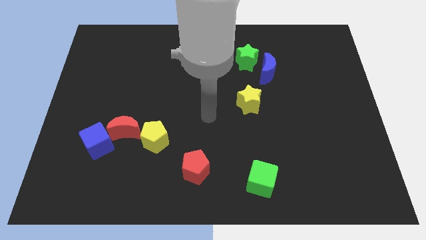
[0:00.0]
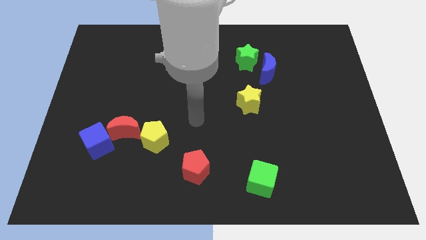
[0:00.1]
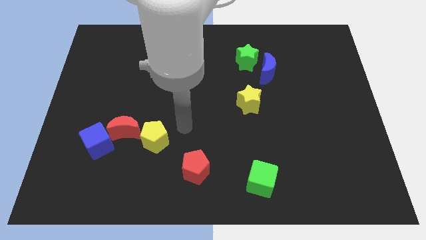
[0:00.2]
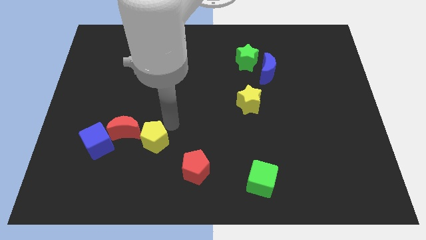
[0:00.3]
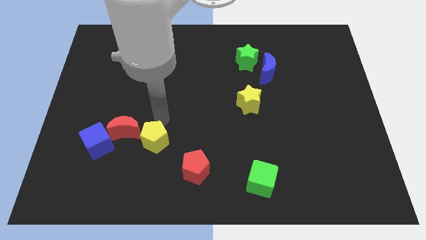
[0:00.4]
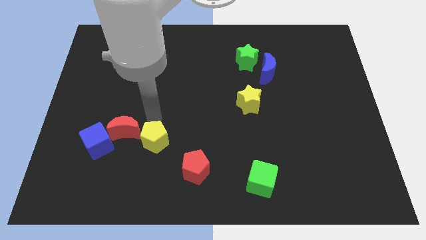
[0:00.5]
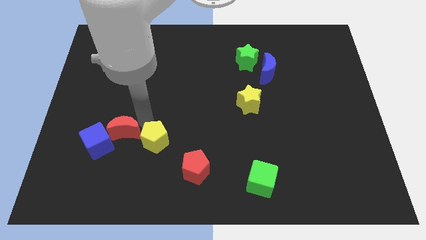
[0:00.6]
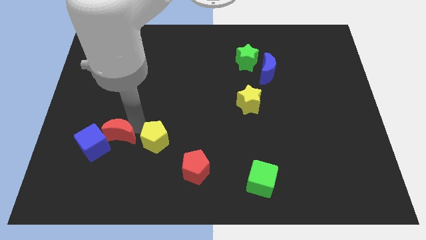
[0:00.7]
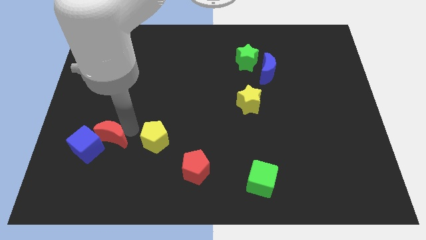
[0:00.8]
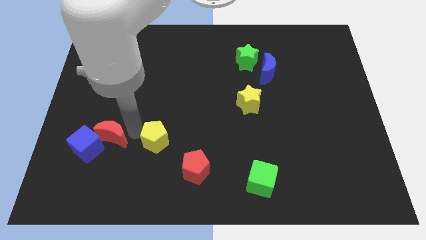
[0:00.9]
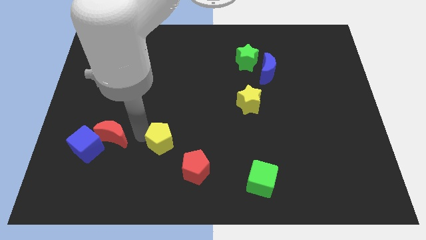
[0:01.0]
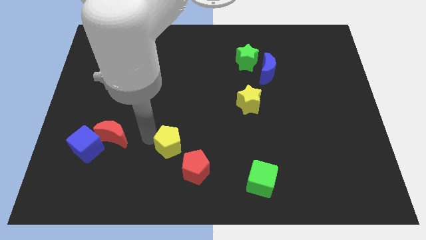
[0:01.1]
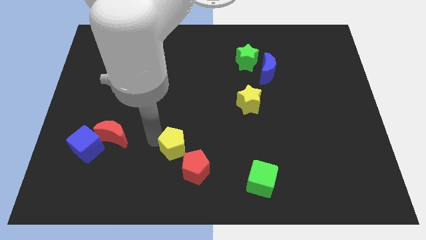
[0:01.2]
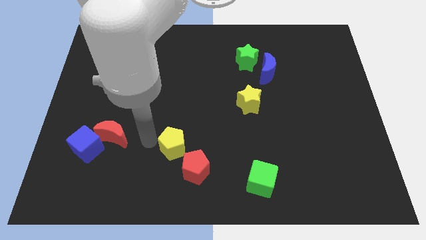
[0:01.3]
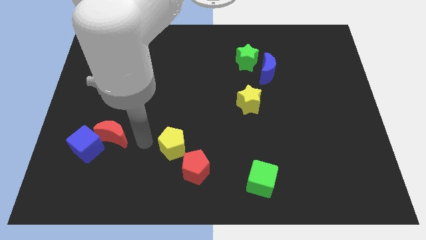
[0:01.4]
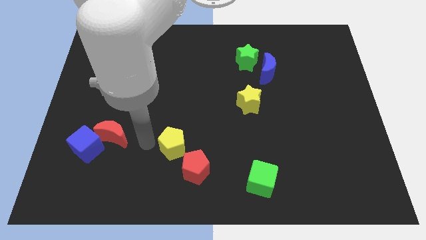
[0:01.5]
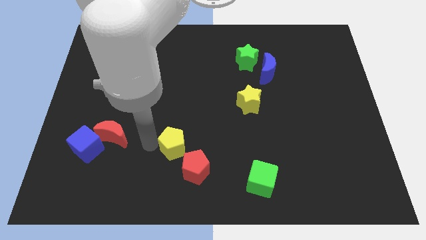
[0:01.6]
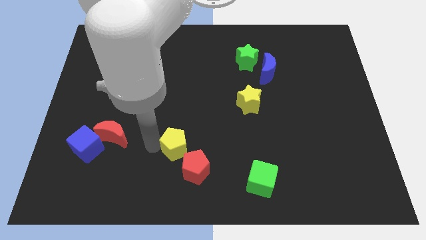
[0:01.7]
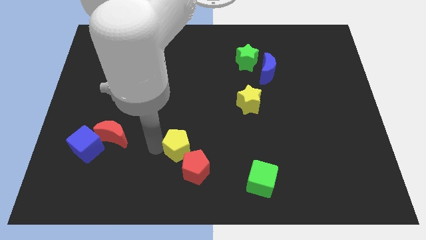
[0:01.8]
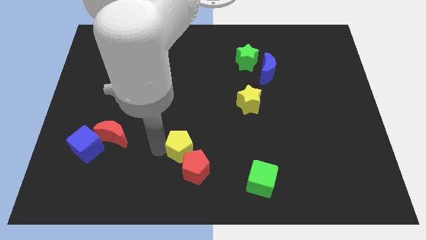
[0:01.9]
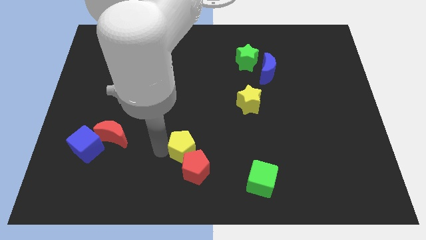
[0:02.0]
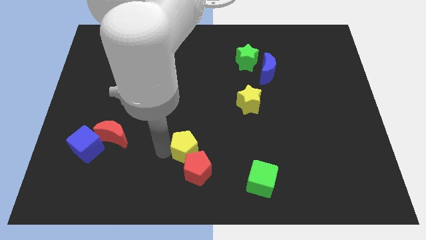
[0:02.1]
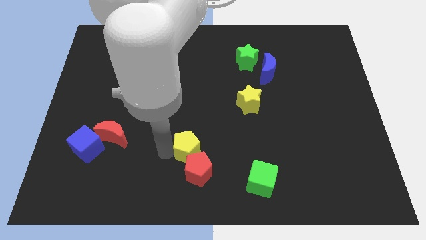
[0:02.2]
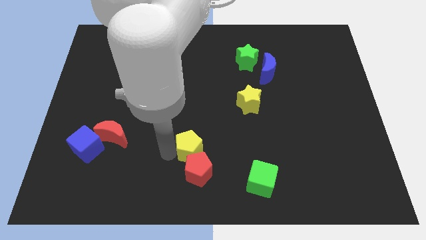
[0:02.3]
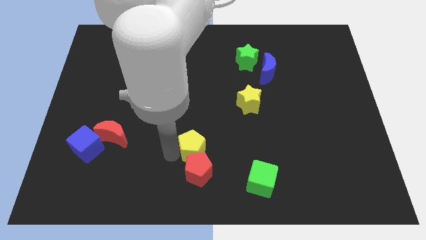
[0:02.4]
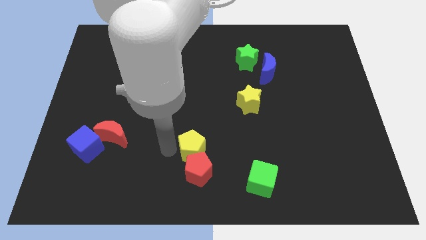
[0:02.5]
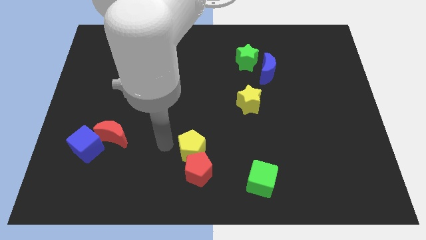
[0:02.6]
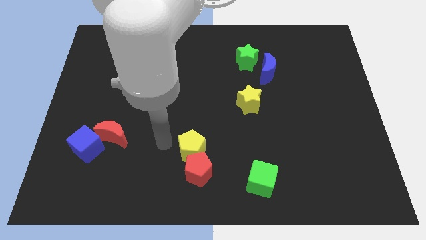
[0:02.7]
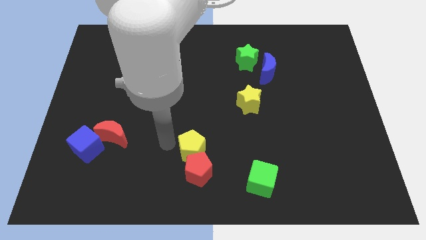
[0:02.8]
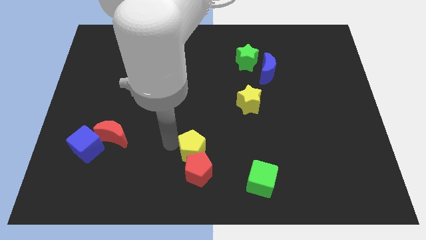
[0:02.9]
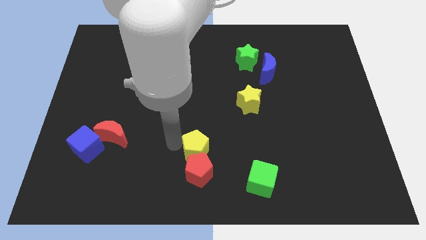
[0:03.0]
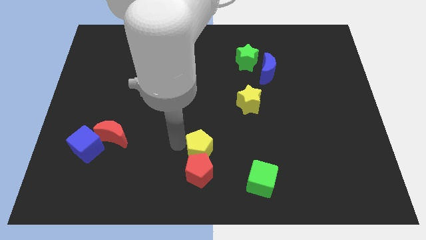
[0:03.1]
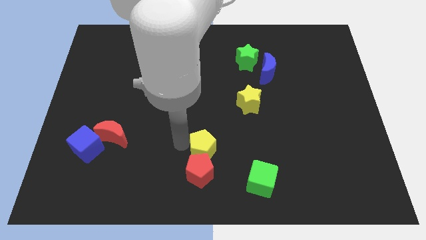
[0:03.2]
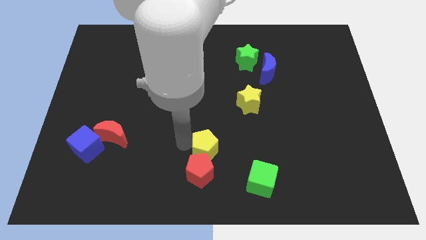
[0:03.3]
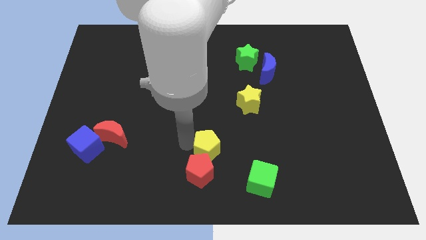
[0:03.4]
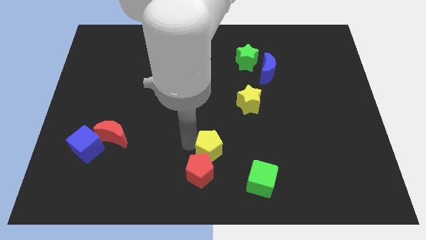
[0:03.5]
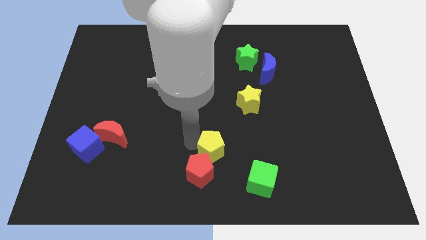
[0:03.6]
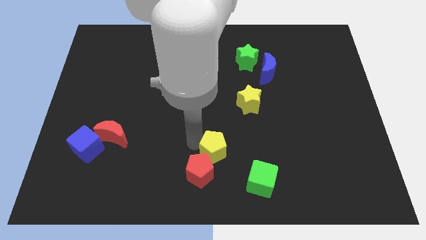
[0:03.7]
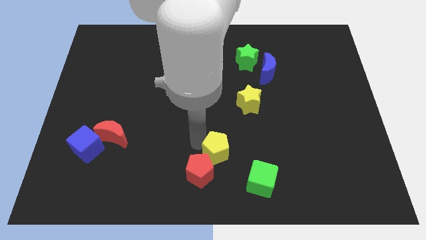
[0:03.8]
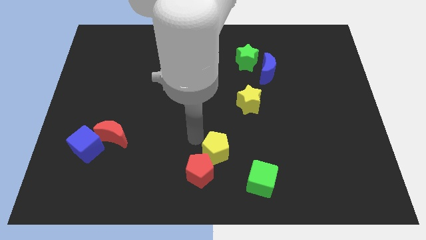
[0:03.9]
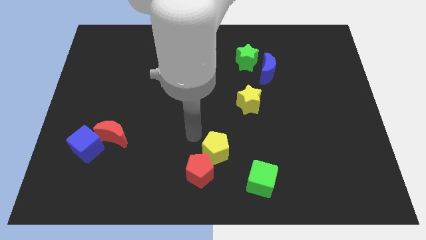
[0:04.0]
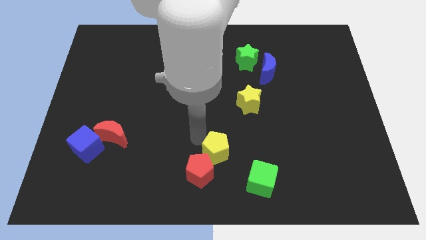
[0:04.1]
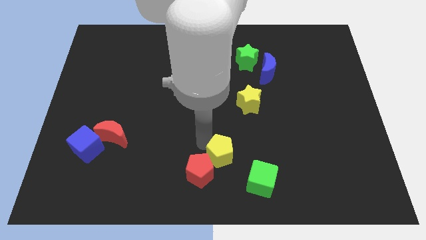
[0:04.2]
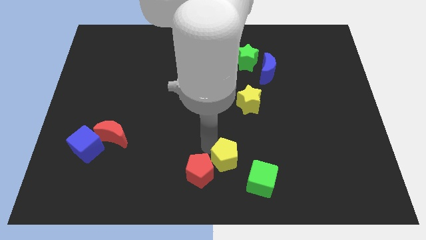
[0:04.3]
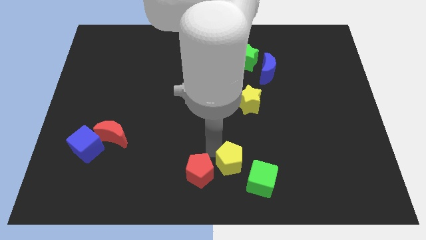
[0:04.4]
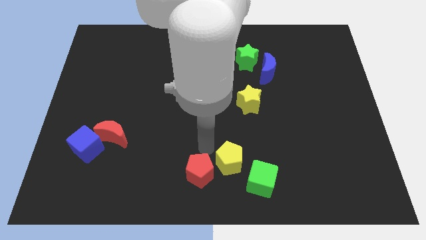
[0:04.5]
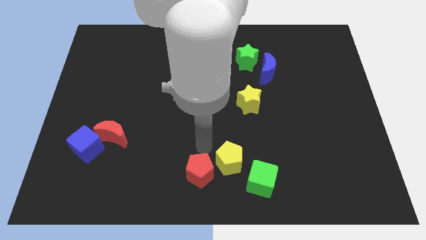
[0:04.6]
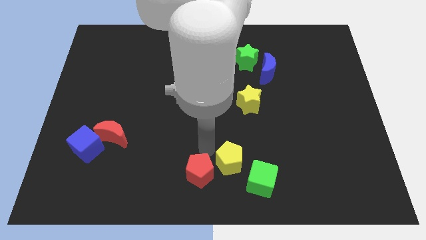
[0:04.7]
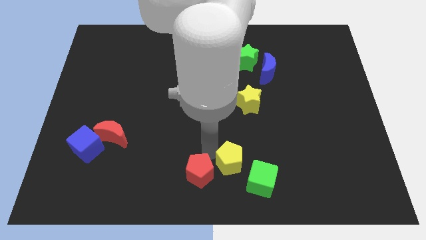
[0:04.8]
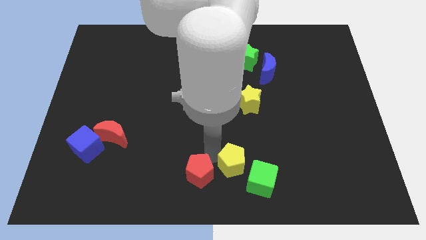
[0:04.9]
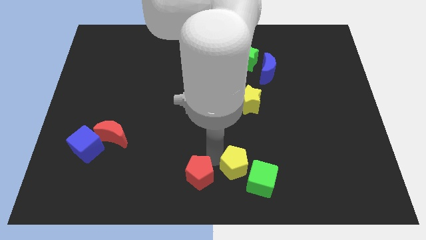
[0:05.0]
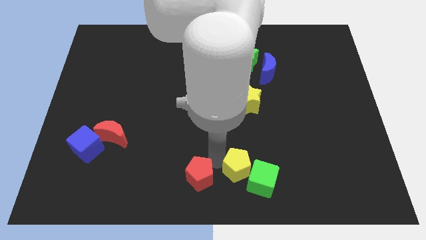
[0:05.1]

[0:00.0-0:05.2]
put the yellow pentagon towards the green cube

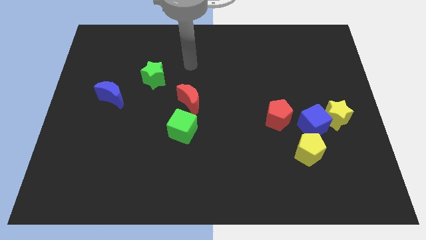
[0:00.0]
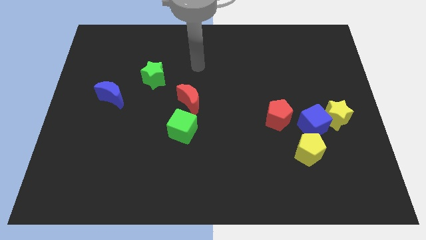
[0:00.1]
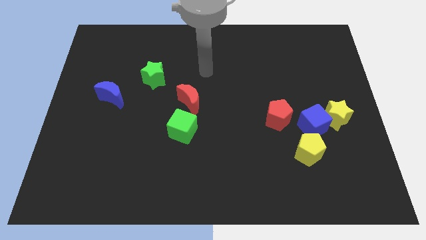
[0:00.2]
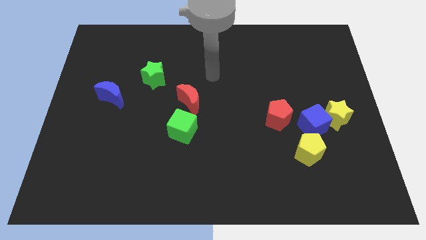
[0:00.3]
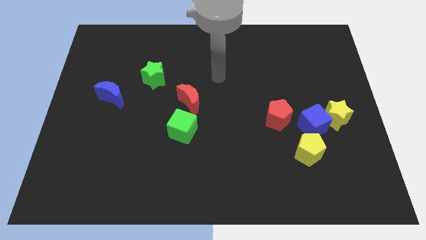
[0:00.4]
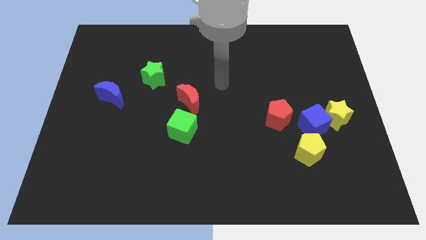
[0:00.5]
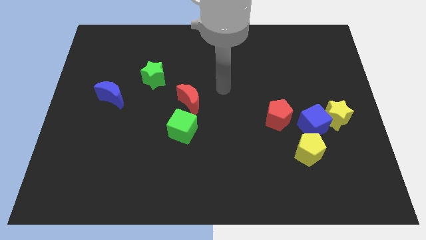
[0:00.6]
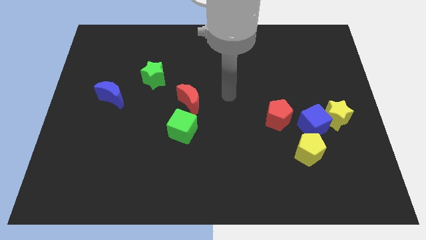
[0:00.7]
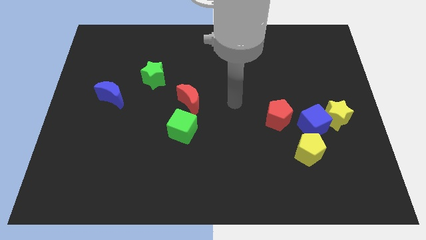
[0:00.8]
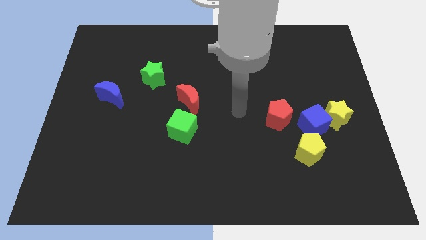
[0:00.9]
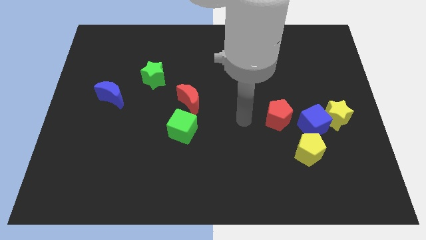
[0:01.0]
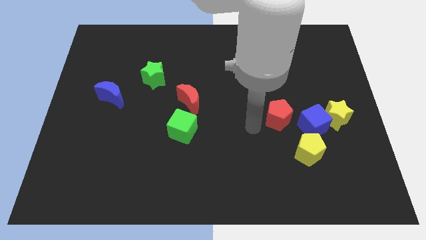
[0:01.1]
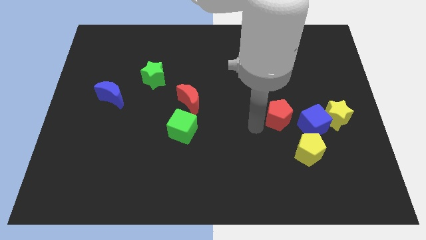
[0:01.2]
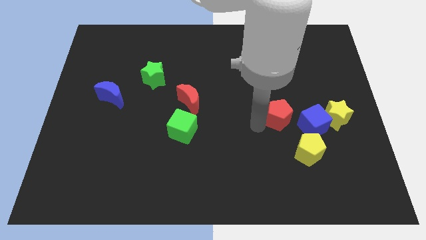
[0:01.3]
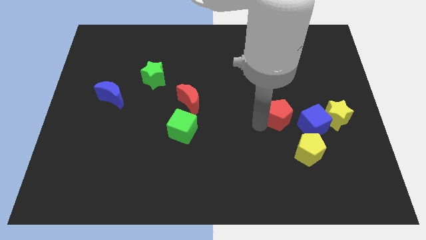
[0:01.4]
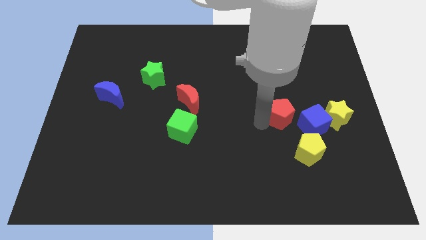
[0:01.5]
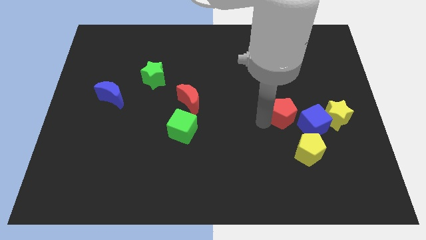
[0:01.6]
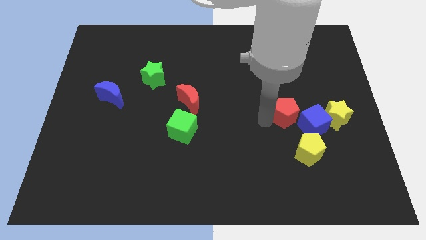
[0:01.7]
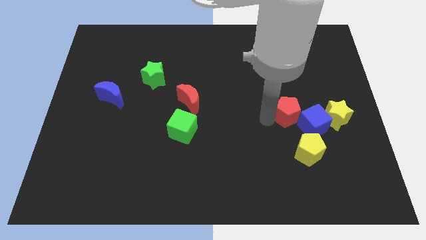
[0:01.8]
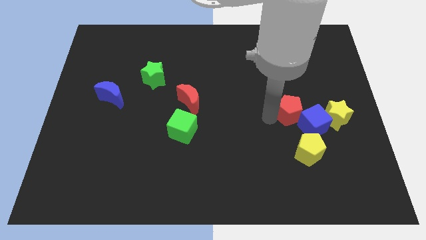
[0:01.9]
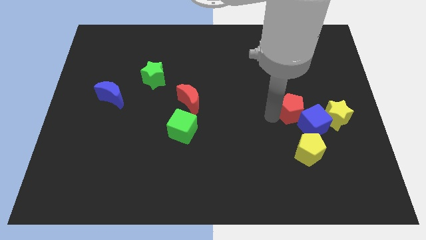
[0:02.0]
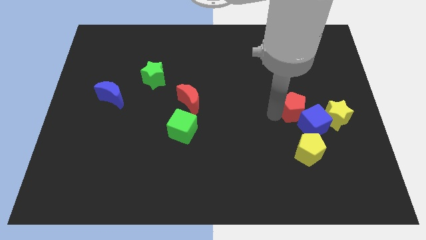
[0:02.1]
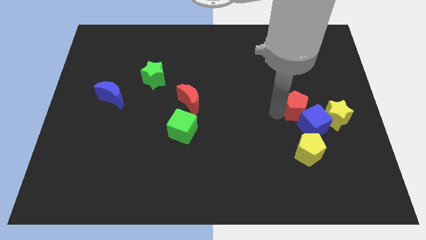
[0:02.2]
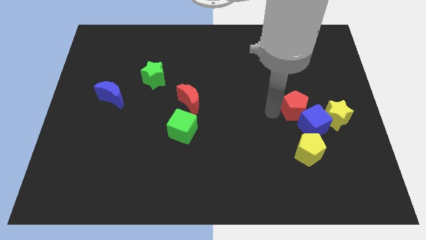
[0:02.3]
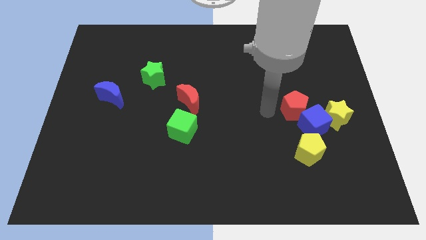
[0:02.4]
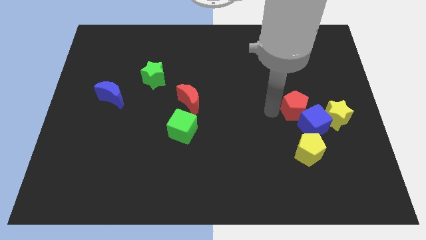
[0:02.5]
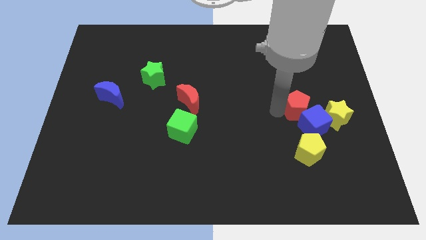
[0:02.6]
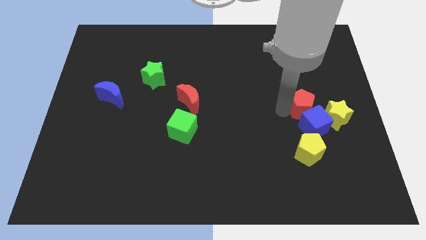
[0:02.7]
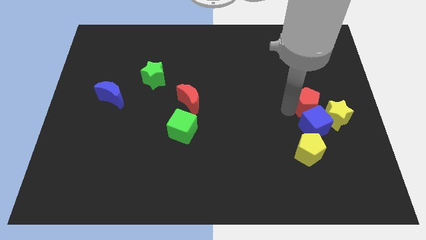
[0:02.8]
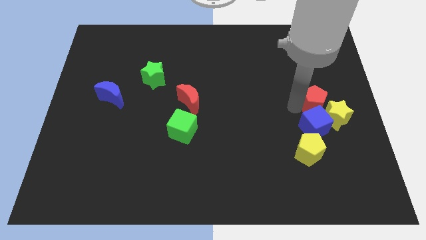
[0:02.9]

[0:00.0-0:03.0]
push the red pentagon next to the yellow star
